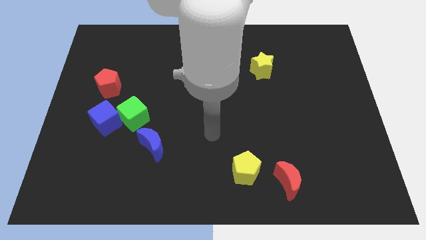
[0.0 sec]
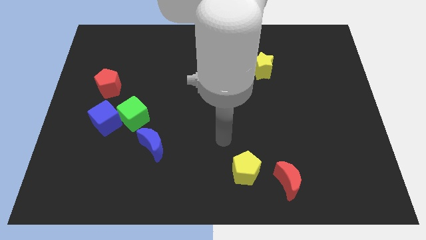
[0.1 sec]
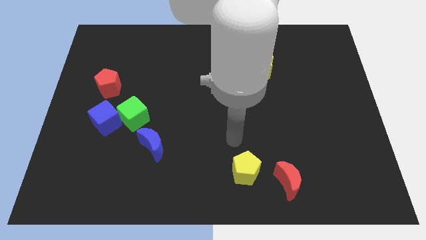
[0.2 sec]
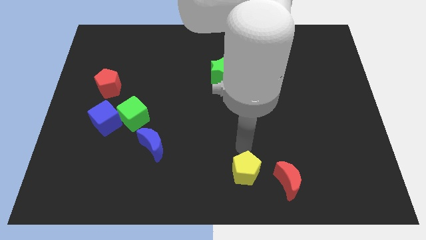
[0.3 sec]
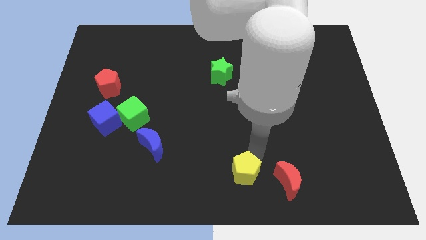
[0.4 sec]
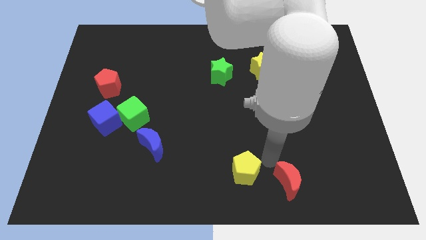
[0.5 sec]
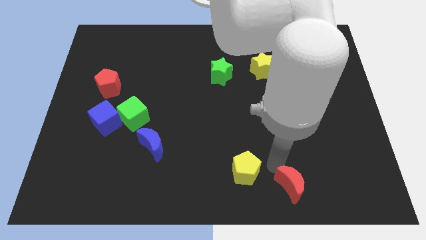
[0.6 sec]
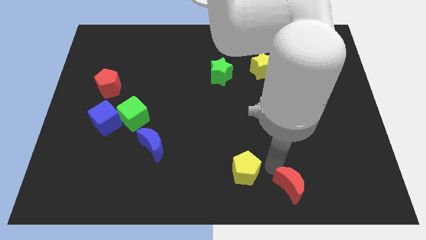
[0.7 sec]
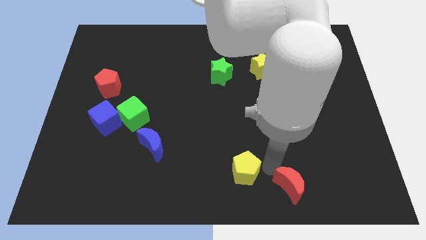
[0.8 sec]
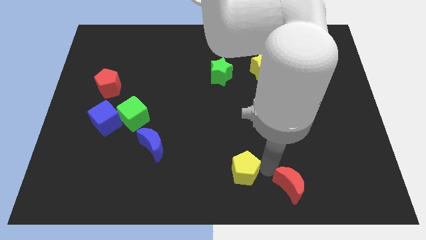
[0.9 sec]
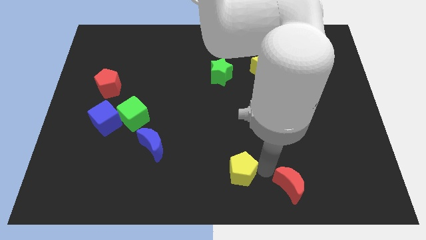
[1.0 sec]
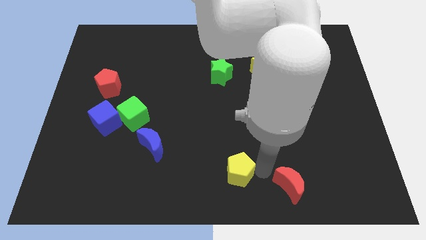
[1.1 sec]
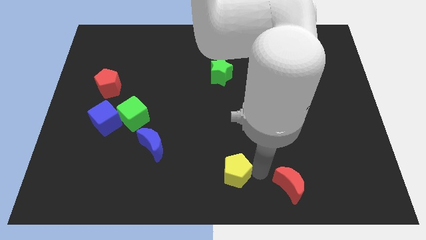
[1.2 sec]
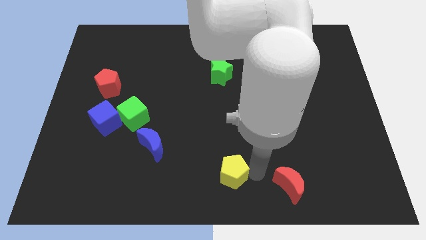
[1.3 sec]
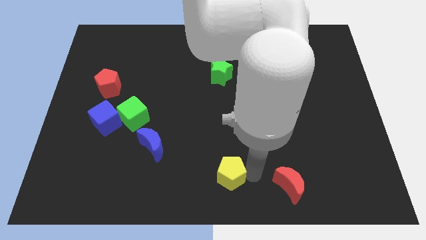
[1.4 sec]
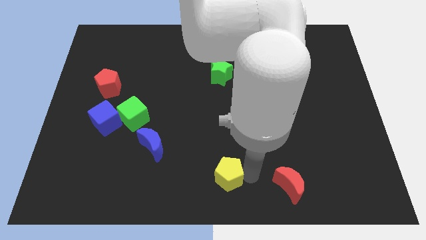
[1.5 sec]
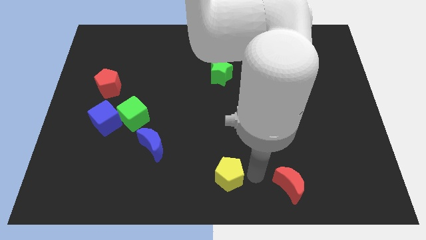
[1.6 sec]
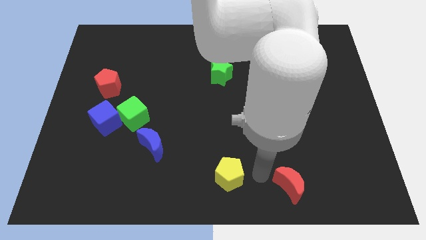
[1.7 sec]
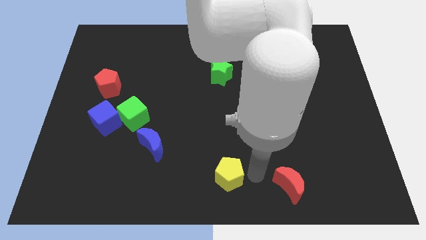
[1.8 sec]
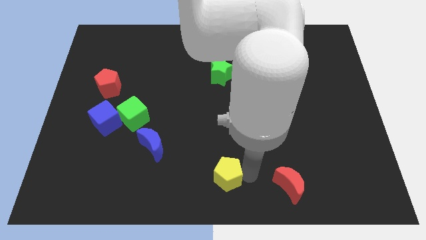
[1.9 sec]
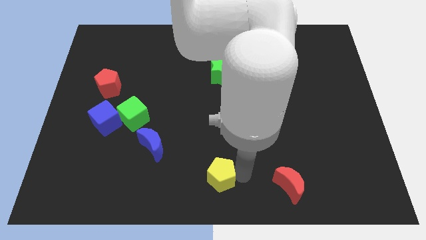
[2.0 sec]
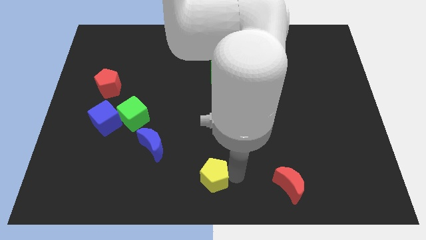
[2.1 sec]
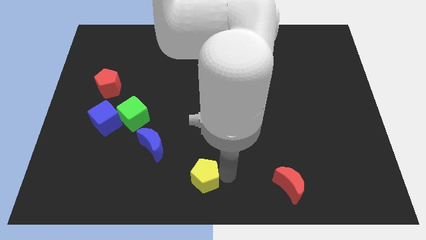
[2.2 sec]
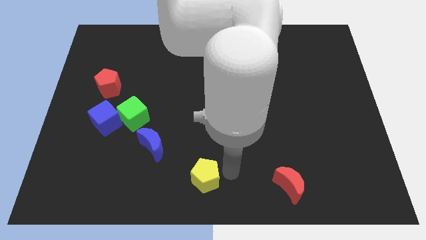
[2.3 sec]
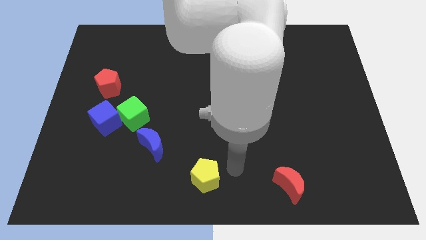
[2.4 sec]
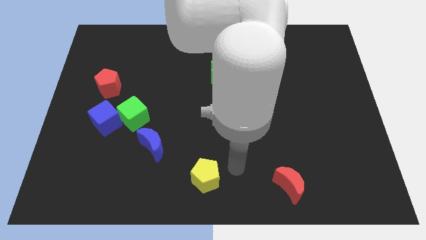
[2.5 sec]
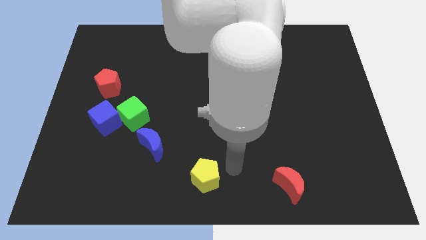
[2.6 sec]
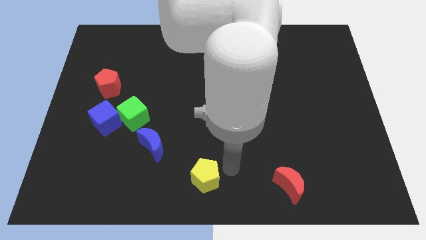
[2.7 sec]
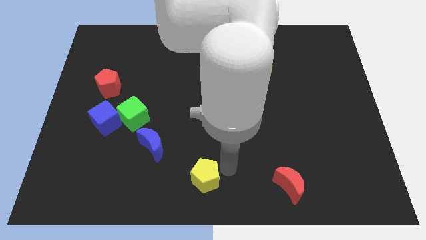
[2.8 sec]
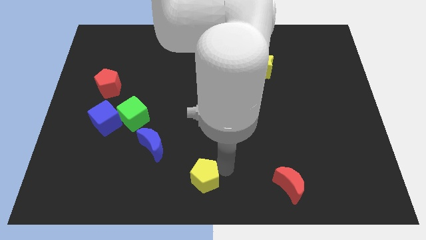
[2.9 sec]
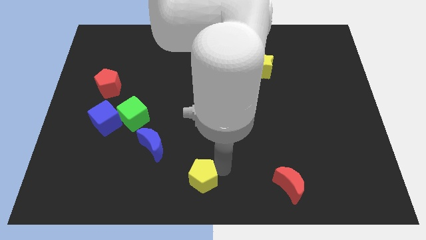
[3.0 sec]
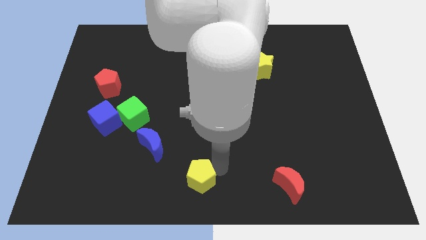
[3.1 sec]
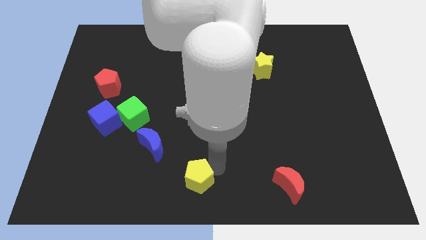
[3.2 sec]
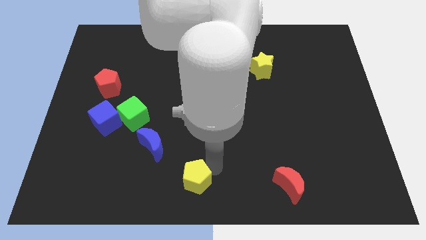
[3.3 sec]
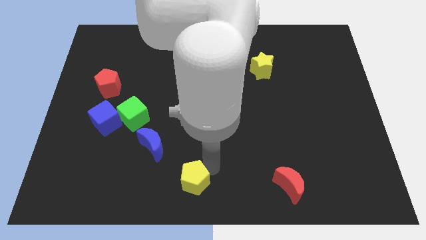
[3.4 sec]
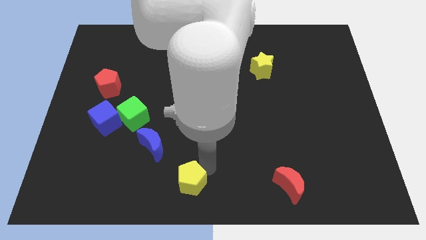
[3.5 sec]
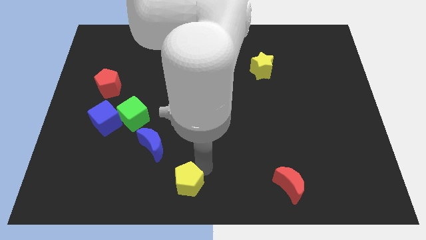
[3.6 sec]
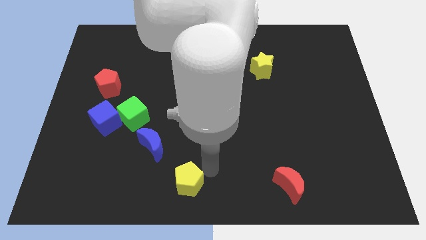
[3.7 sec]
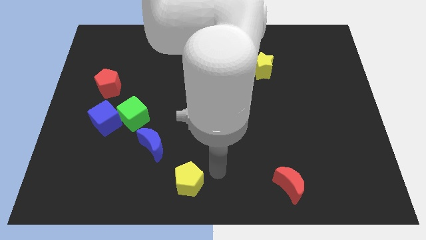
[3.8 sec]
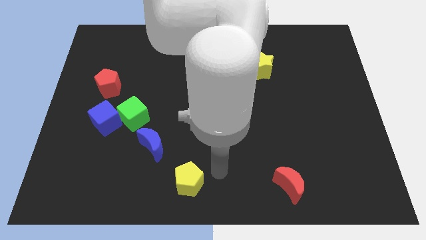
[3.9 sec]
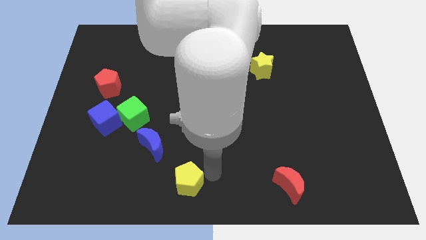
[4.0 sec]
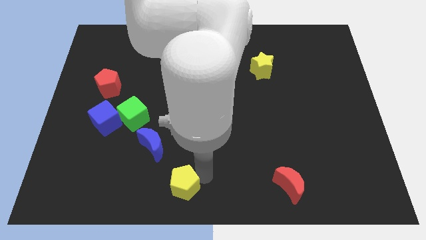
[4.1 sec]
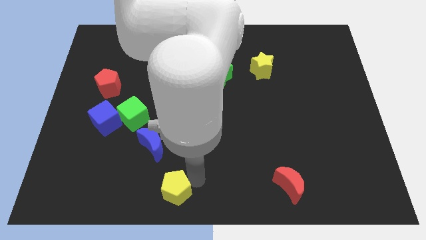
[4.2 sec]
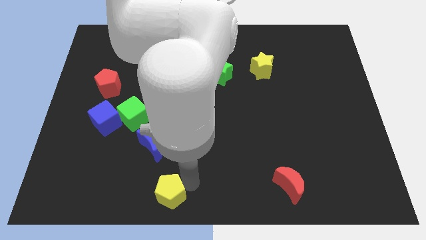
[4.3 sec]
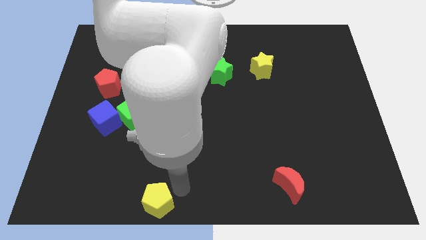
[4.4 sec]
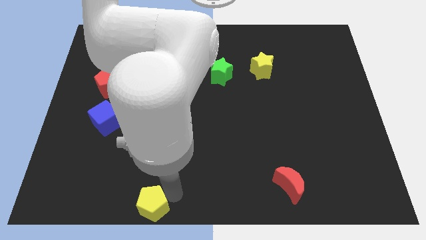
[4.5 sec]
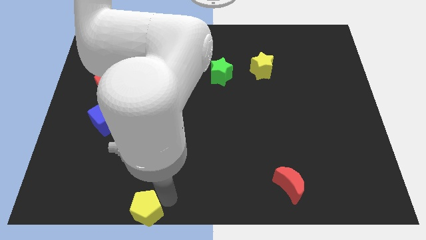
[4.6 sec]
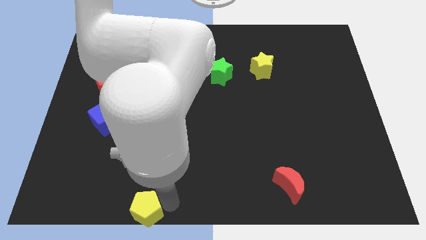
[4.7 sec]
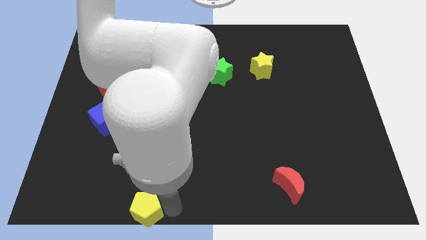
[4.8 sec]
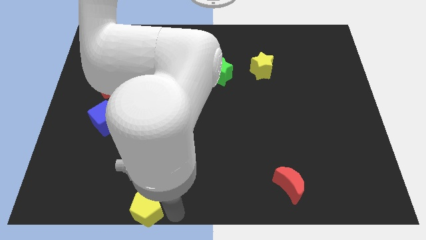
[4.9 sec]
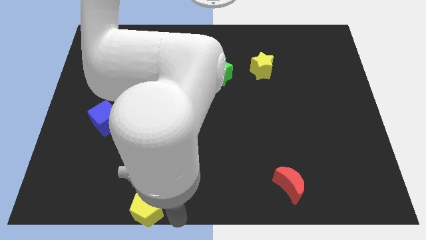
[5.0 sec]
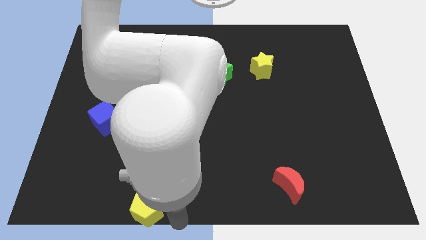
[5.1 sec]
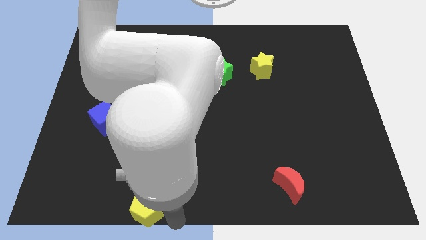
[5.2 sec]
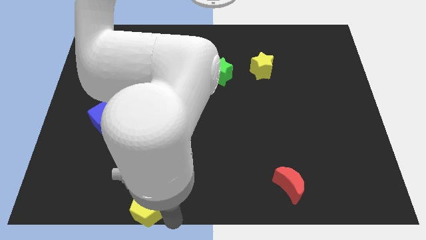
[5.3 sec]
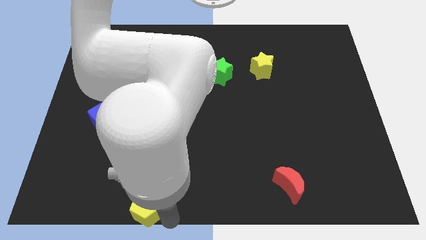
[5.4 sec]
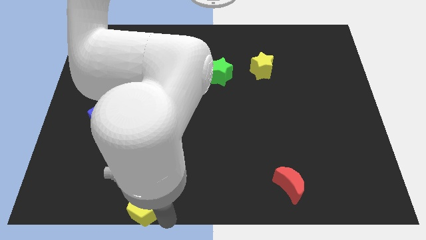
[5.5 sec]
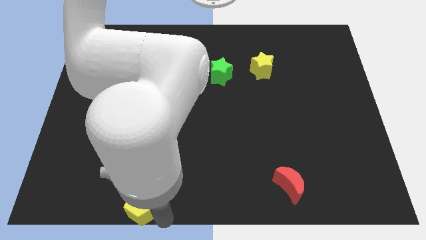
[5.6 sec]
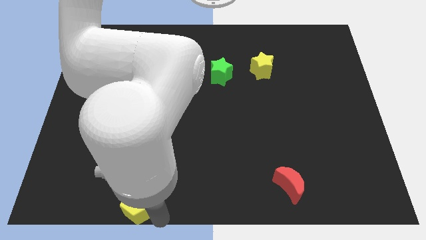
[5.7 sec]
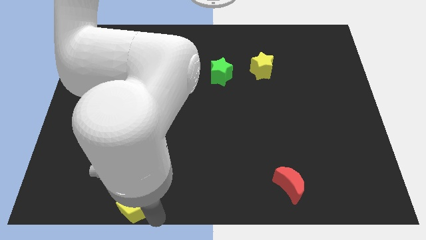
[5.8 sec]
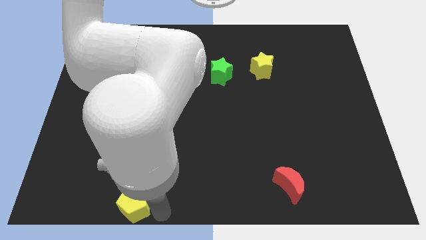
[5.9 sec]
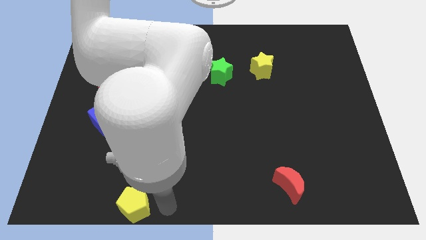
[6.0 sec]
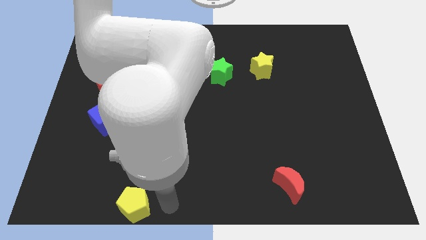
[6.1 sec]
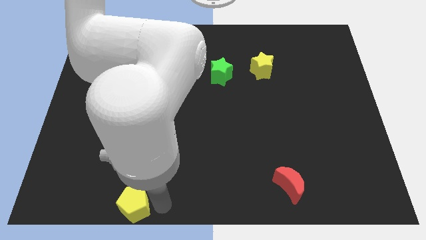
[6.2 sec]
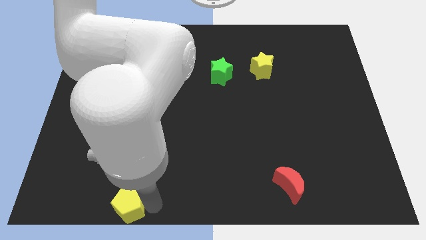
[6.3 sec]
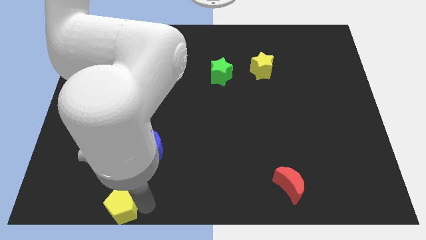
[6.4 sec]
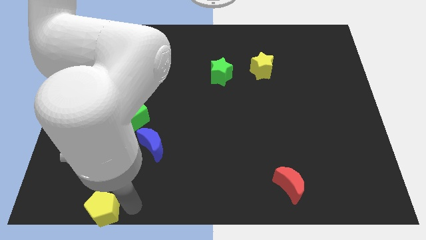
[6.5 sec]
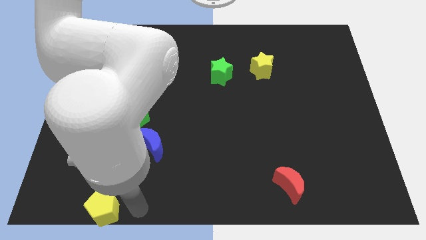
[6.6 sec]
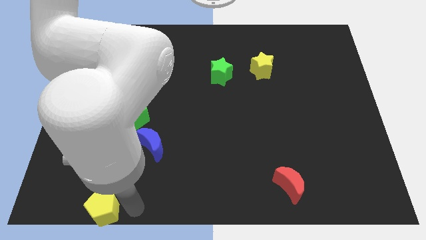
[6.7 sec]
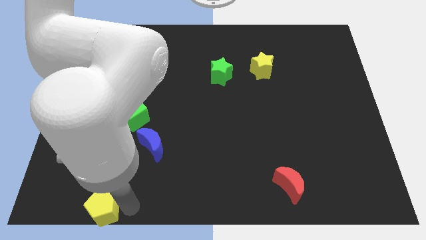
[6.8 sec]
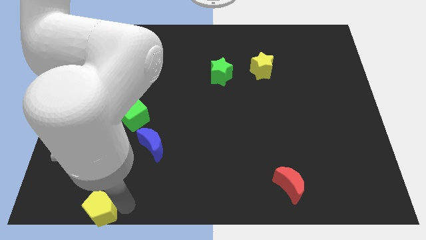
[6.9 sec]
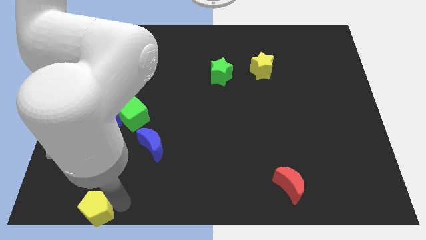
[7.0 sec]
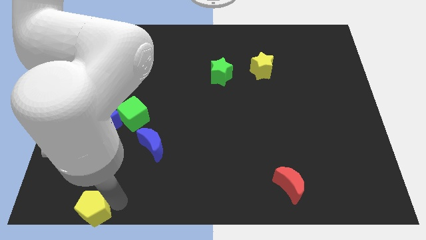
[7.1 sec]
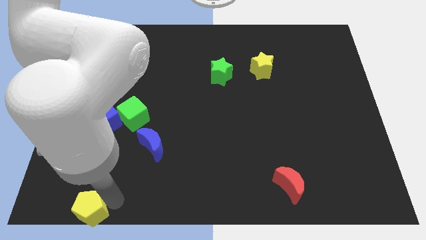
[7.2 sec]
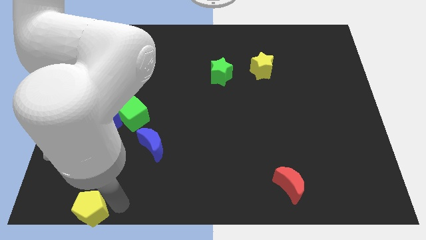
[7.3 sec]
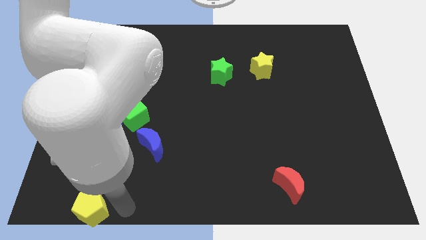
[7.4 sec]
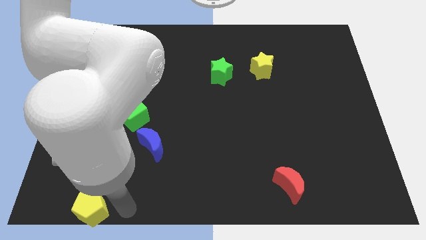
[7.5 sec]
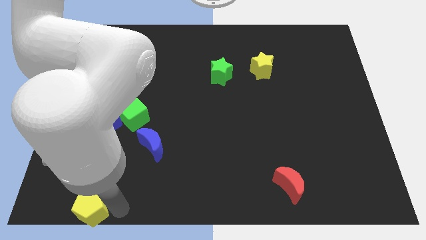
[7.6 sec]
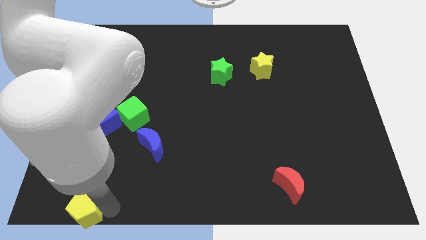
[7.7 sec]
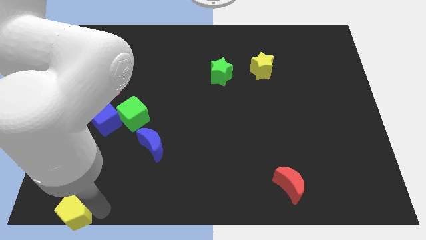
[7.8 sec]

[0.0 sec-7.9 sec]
put the yellow pentagon to the bottom left of the board
